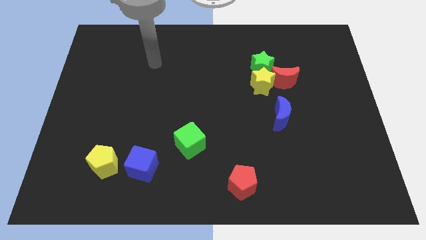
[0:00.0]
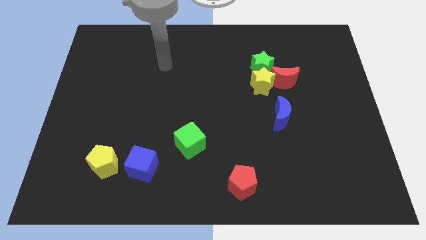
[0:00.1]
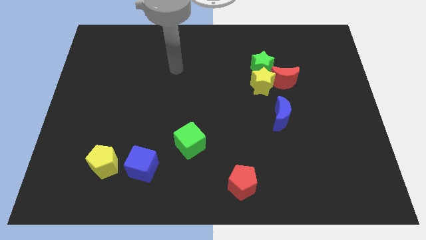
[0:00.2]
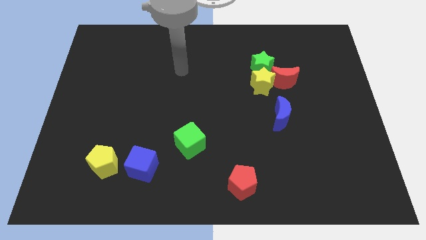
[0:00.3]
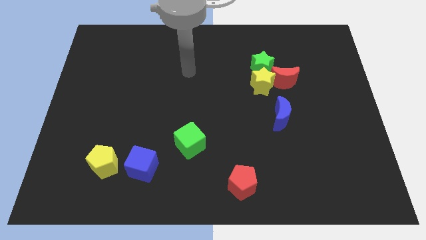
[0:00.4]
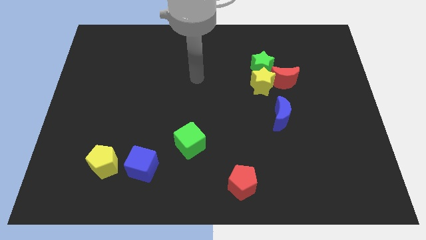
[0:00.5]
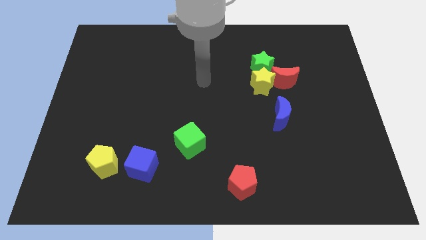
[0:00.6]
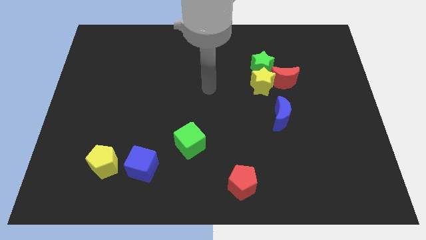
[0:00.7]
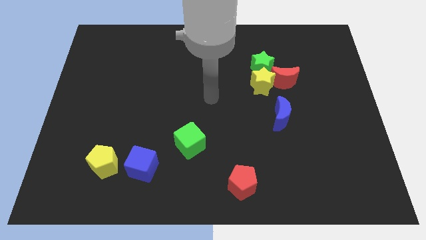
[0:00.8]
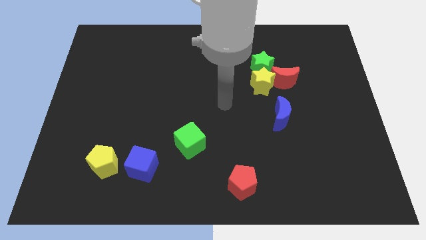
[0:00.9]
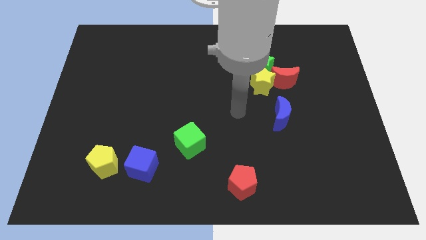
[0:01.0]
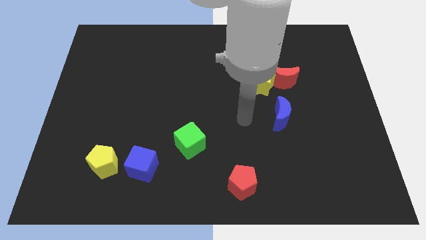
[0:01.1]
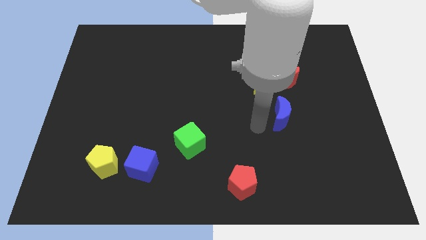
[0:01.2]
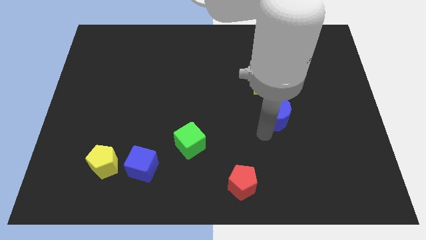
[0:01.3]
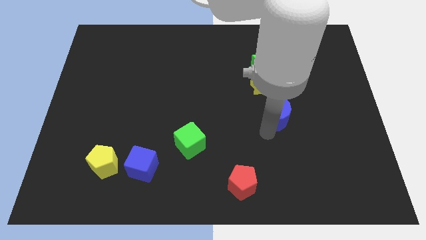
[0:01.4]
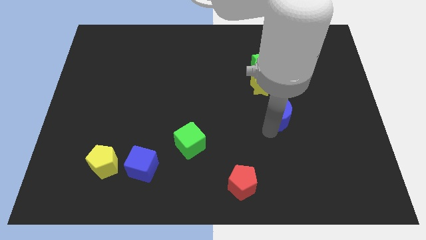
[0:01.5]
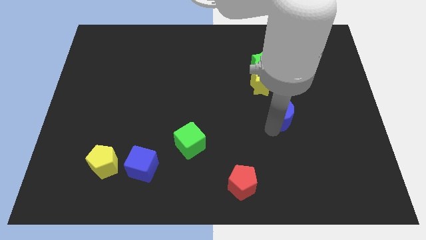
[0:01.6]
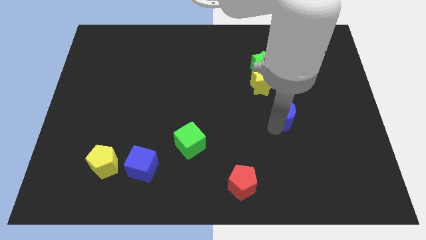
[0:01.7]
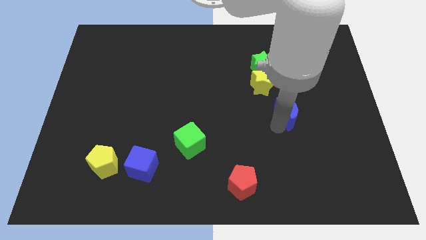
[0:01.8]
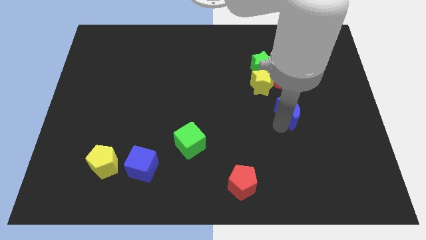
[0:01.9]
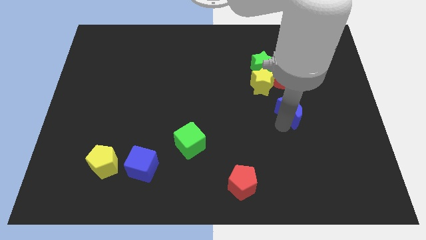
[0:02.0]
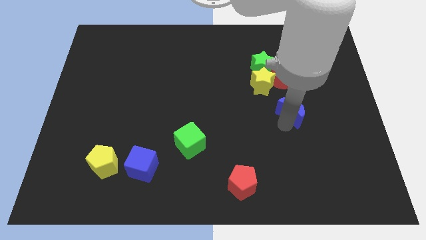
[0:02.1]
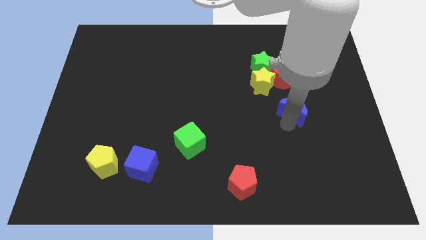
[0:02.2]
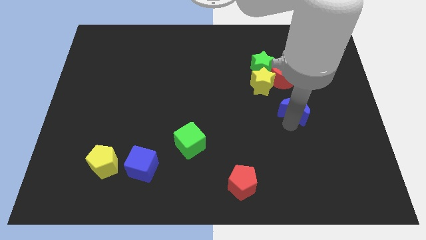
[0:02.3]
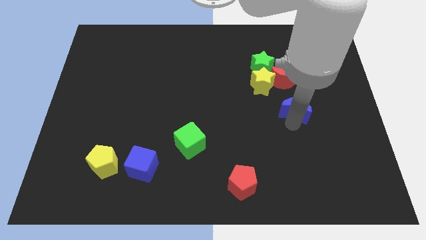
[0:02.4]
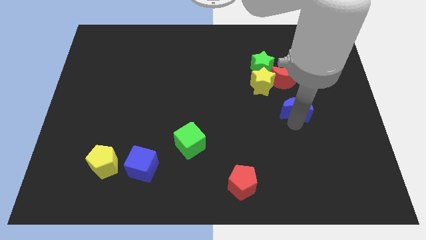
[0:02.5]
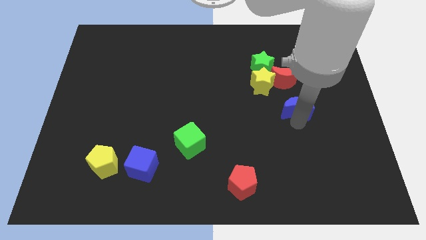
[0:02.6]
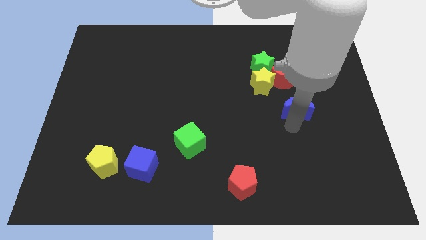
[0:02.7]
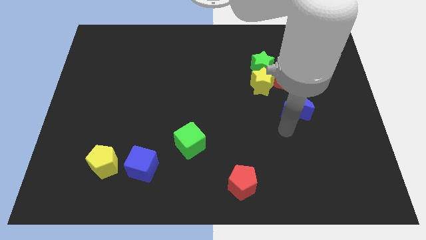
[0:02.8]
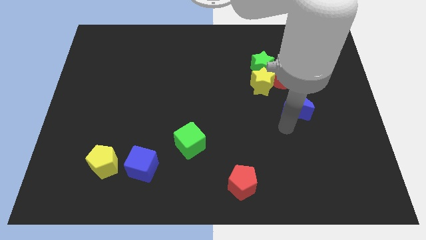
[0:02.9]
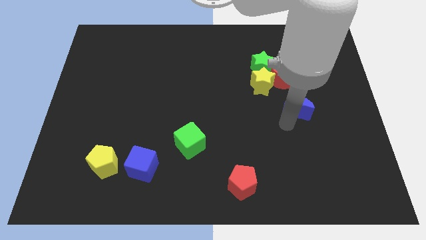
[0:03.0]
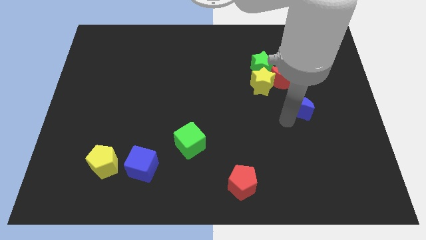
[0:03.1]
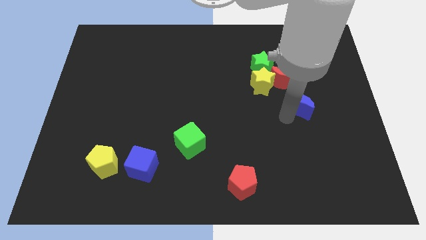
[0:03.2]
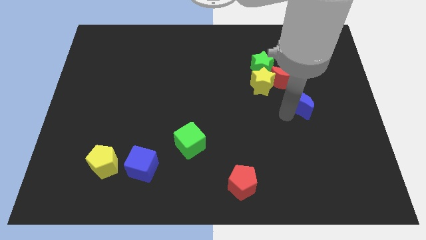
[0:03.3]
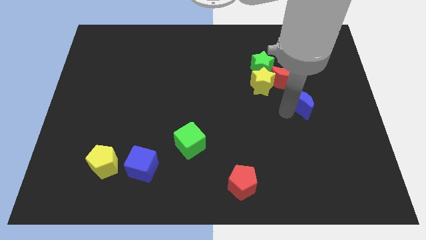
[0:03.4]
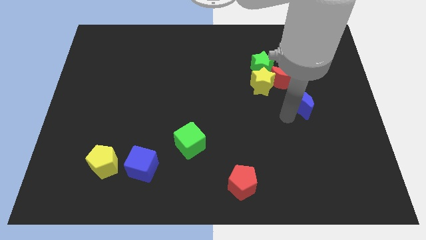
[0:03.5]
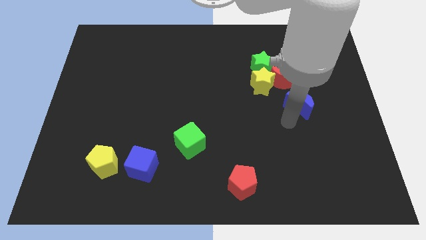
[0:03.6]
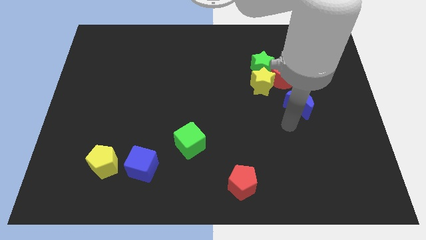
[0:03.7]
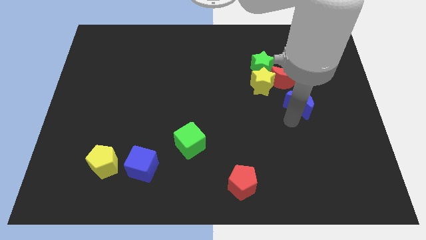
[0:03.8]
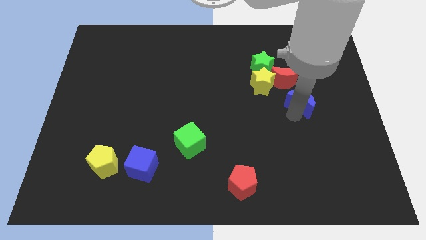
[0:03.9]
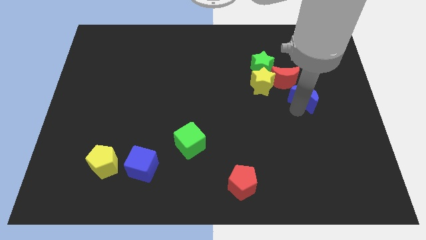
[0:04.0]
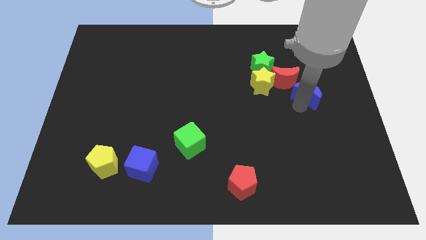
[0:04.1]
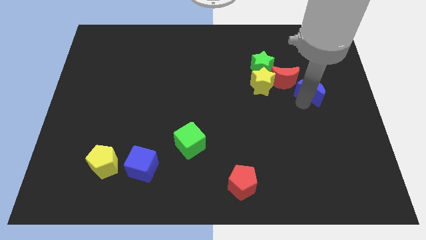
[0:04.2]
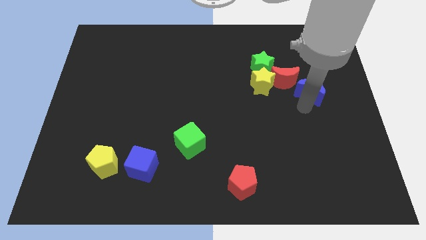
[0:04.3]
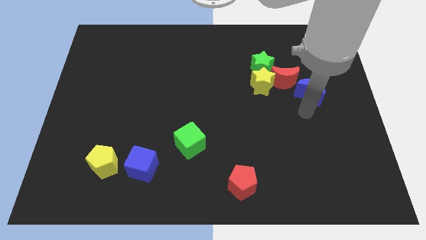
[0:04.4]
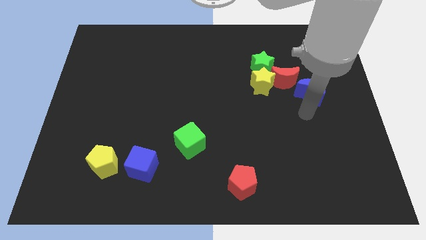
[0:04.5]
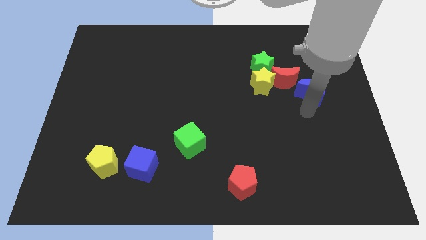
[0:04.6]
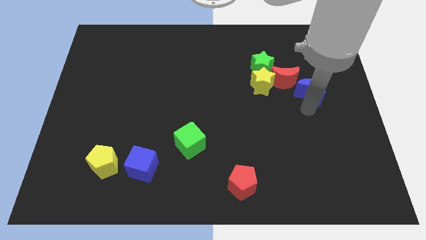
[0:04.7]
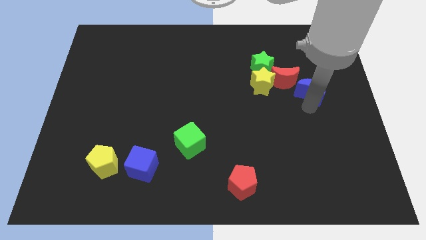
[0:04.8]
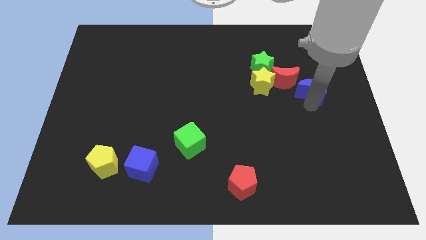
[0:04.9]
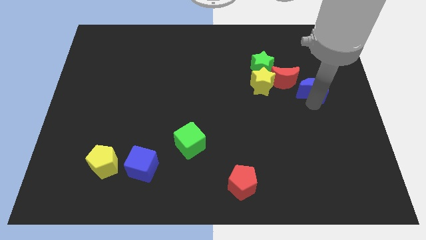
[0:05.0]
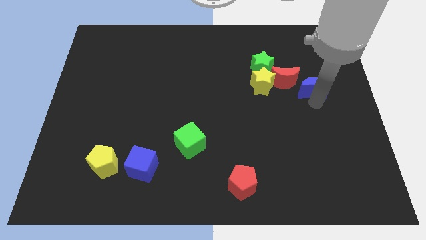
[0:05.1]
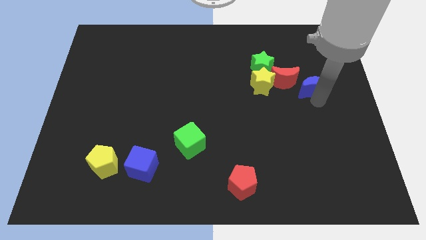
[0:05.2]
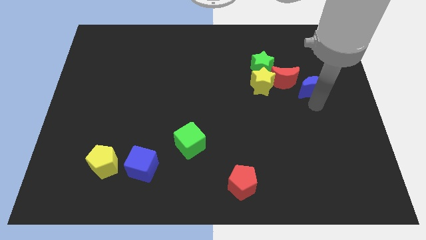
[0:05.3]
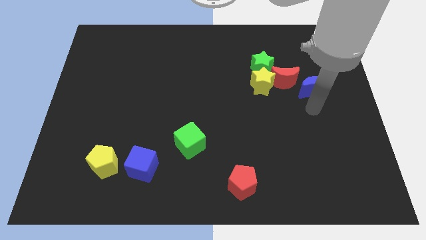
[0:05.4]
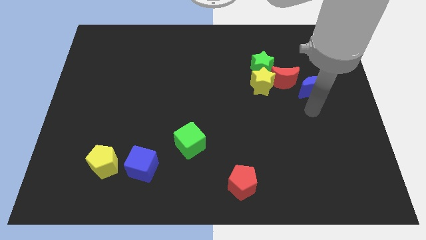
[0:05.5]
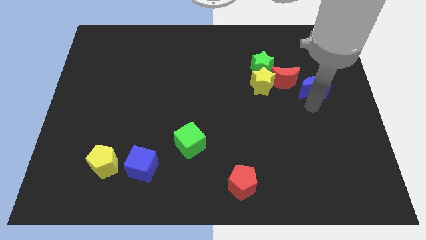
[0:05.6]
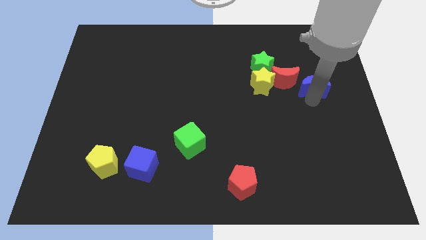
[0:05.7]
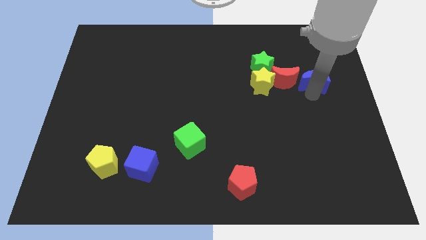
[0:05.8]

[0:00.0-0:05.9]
slightly slide the blue moon up

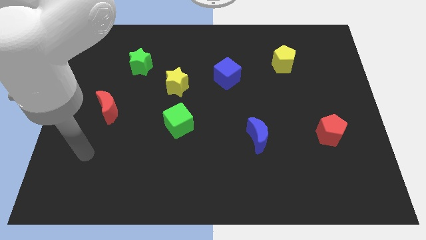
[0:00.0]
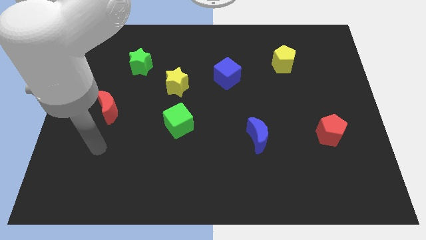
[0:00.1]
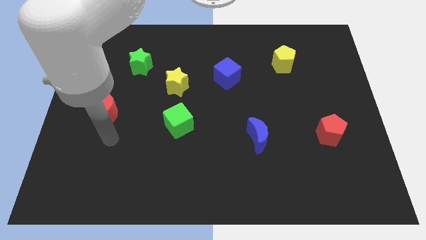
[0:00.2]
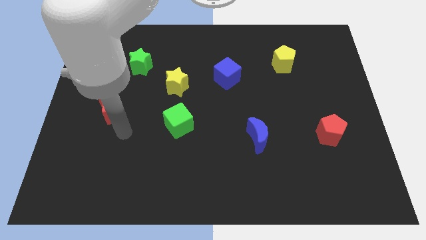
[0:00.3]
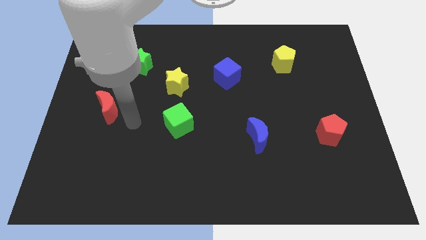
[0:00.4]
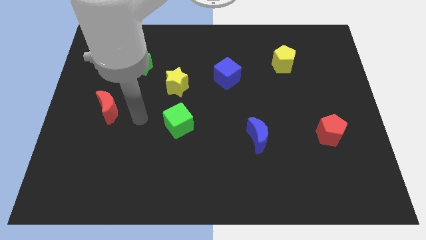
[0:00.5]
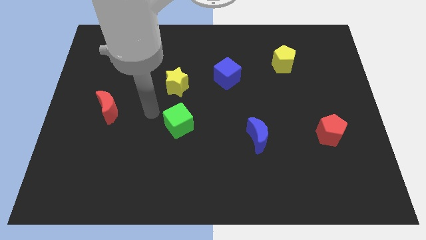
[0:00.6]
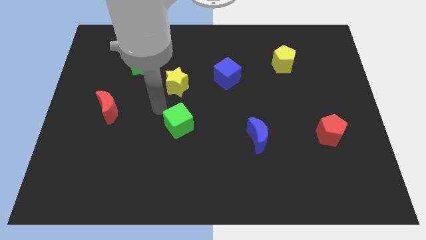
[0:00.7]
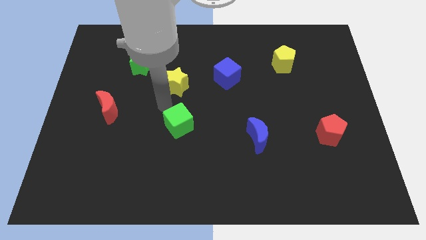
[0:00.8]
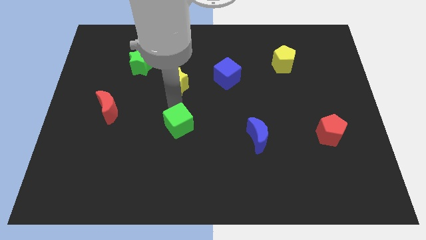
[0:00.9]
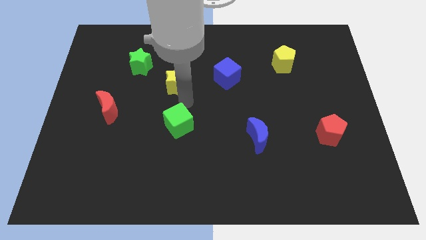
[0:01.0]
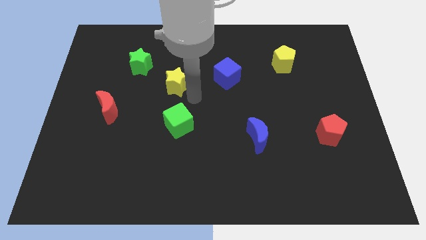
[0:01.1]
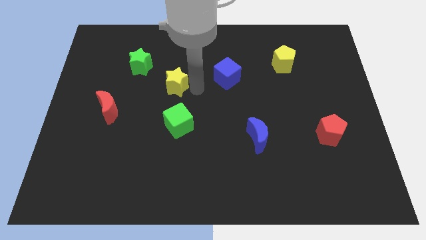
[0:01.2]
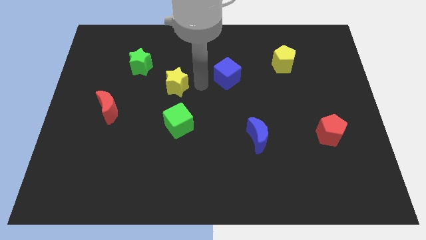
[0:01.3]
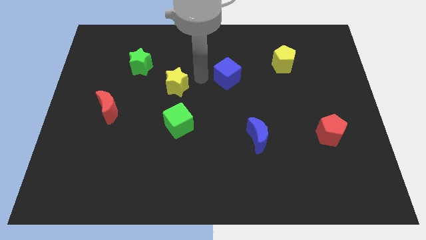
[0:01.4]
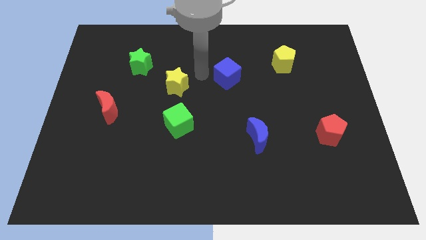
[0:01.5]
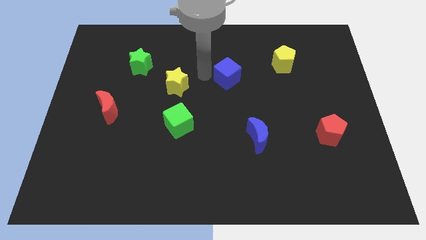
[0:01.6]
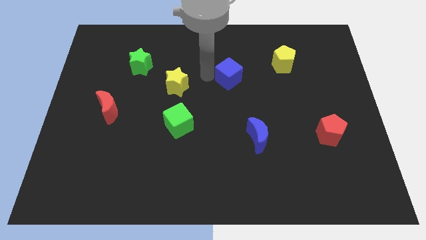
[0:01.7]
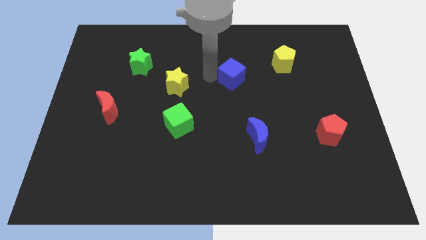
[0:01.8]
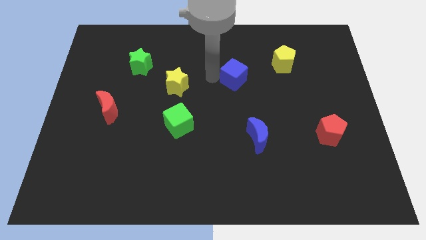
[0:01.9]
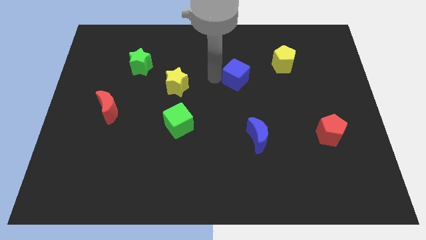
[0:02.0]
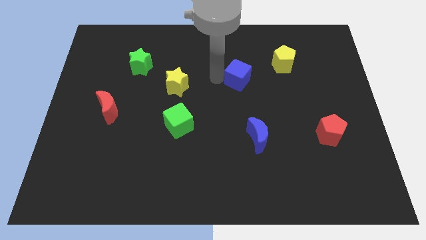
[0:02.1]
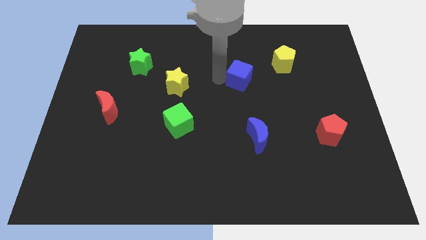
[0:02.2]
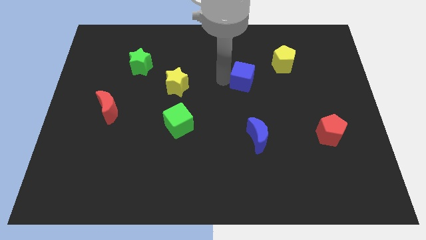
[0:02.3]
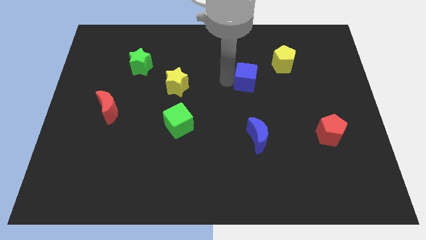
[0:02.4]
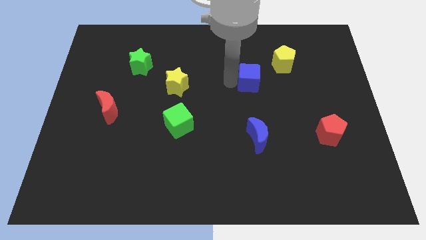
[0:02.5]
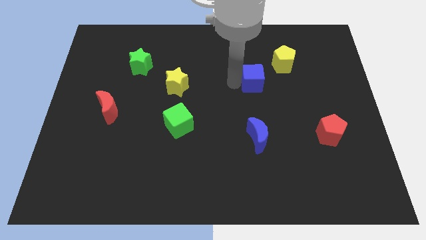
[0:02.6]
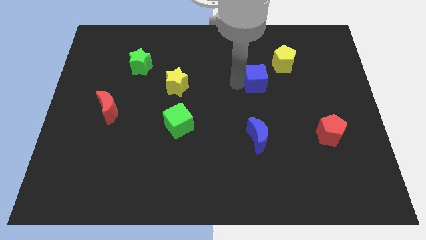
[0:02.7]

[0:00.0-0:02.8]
slightly slide the blue cube right
